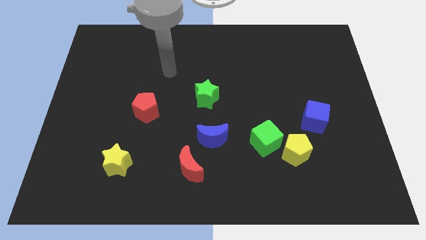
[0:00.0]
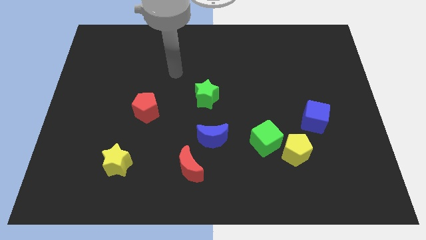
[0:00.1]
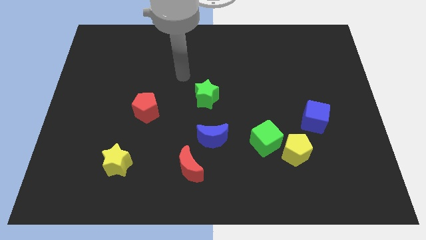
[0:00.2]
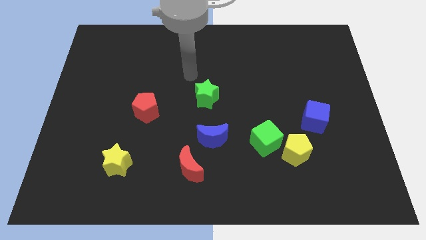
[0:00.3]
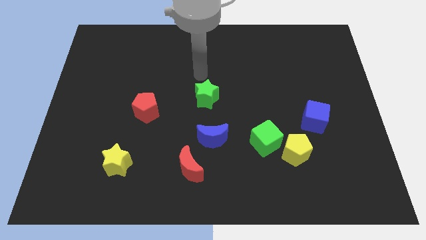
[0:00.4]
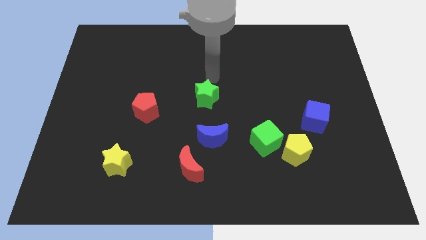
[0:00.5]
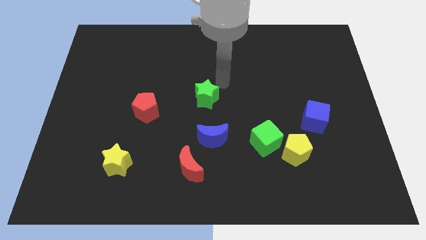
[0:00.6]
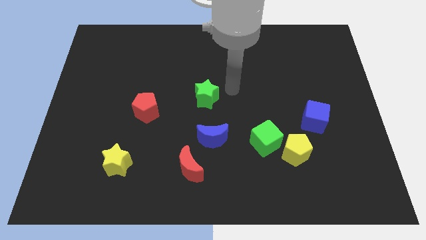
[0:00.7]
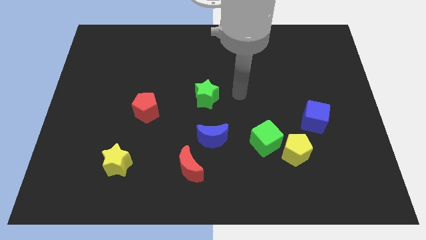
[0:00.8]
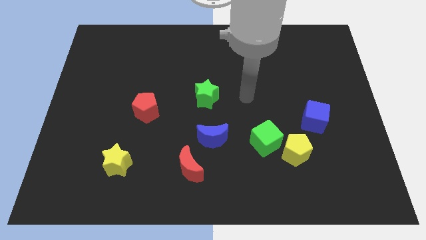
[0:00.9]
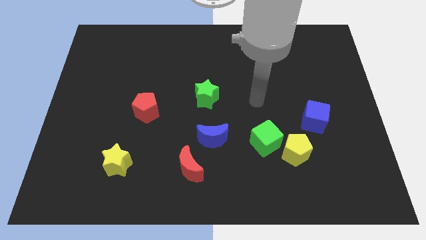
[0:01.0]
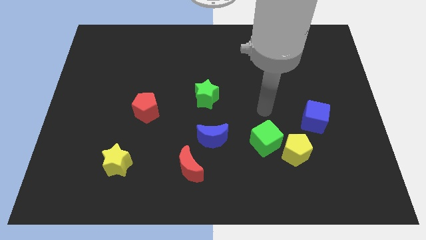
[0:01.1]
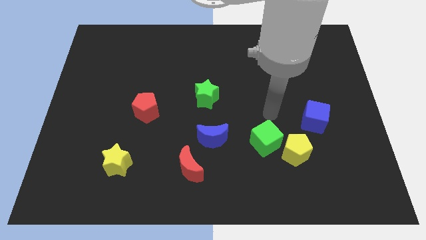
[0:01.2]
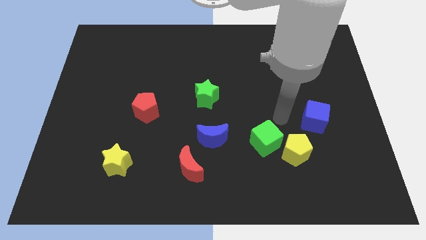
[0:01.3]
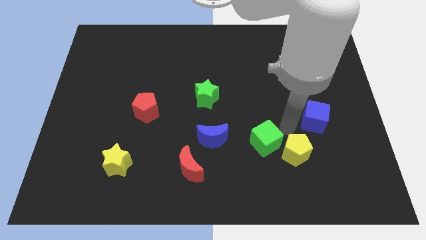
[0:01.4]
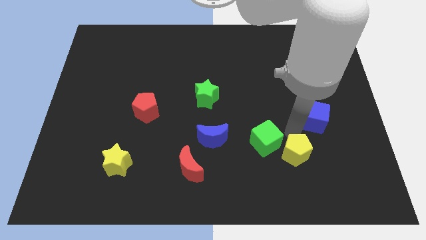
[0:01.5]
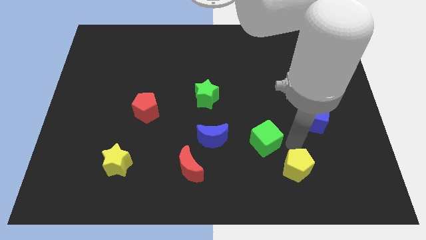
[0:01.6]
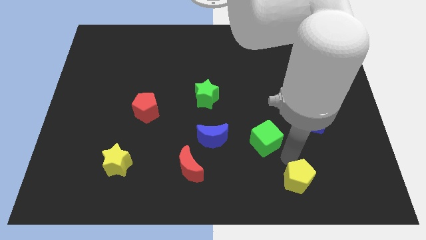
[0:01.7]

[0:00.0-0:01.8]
move the green cube away from the yellow pentagon

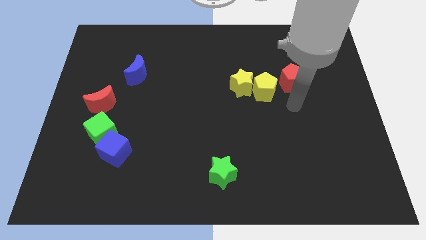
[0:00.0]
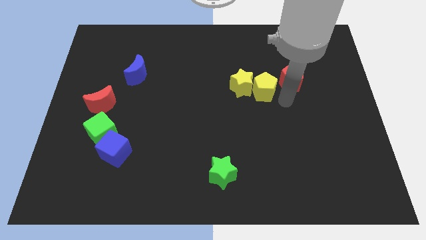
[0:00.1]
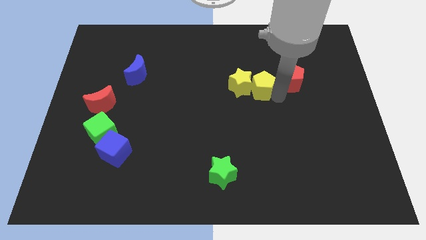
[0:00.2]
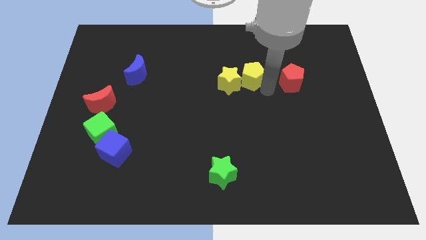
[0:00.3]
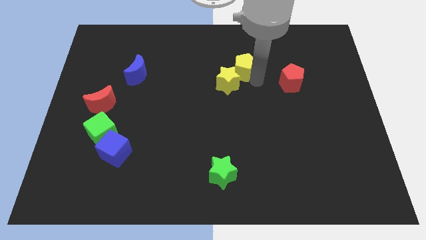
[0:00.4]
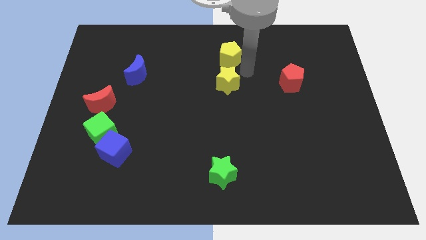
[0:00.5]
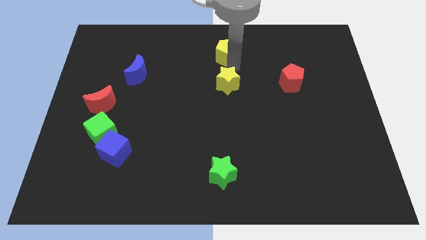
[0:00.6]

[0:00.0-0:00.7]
move the yellow star away from the yellow pentagon

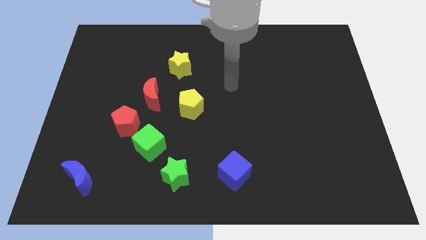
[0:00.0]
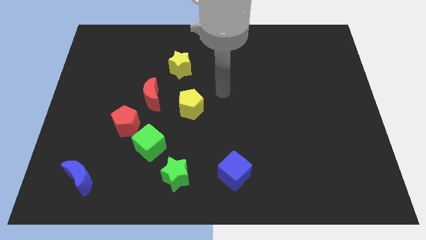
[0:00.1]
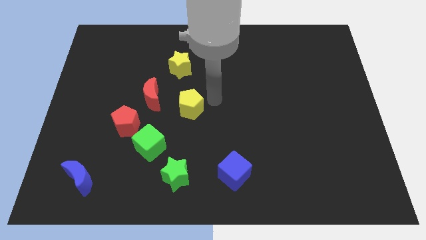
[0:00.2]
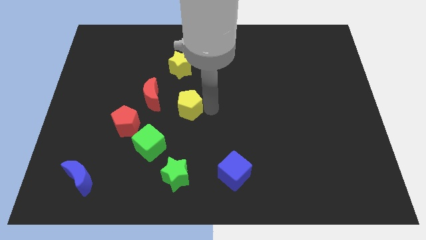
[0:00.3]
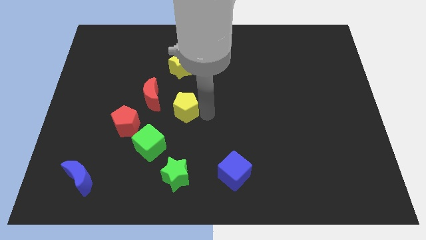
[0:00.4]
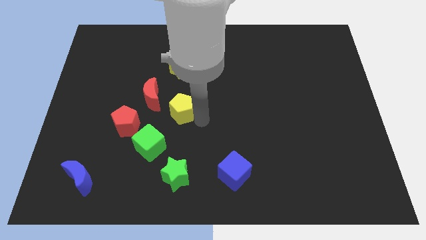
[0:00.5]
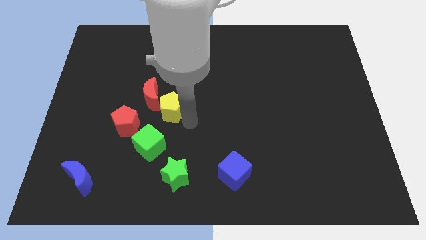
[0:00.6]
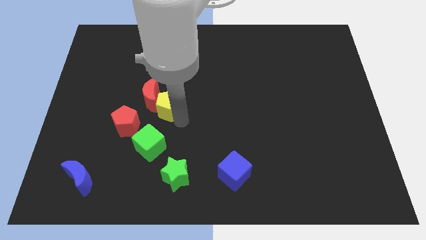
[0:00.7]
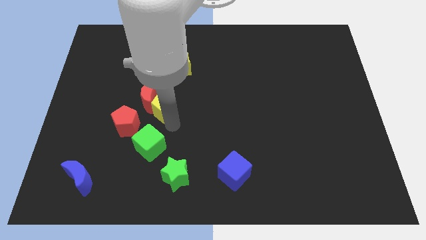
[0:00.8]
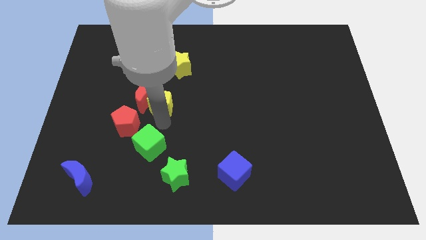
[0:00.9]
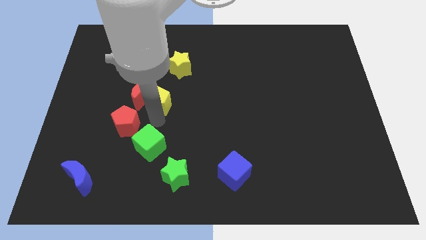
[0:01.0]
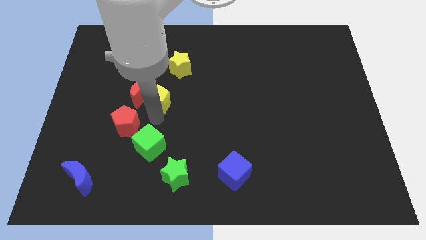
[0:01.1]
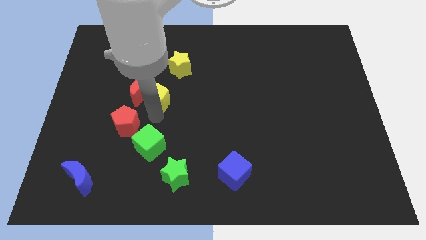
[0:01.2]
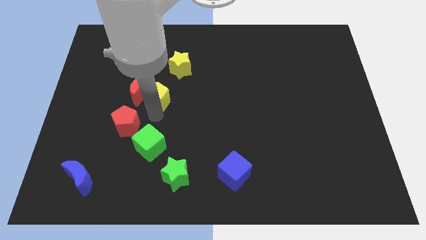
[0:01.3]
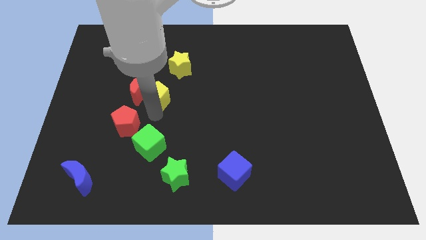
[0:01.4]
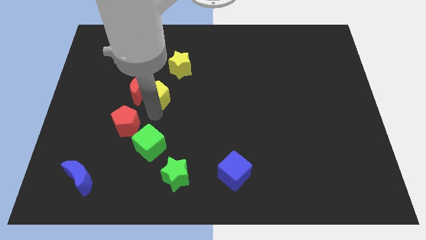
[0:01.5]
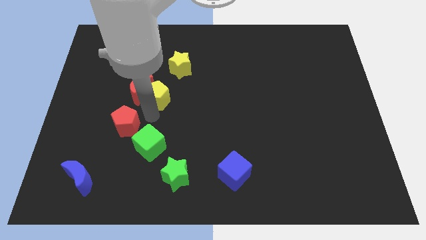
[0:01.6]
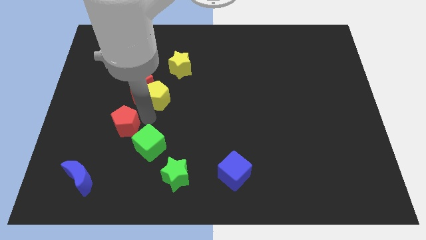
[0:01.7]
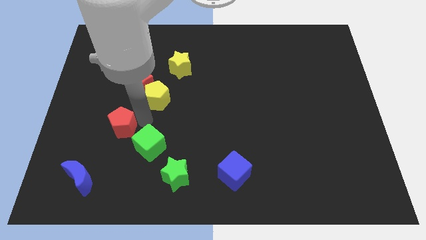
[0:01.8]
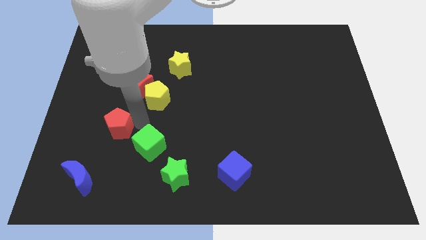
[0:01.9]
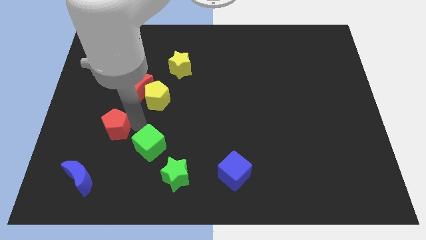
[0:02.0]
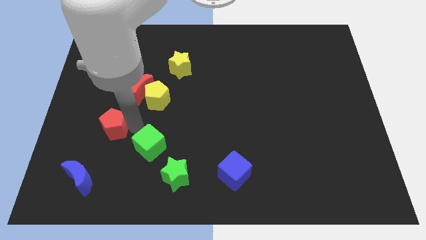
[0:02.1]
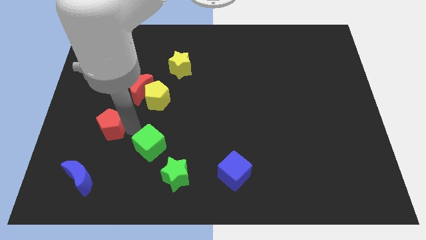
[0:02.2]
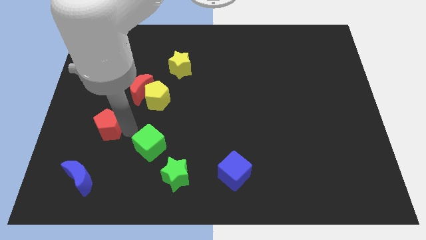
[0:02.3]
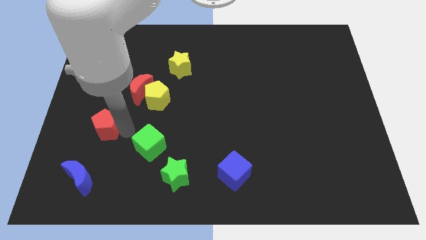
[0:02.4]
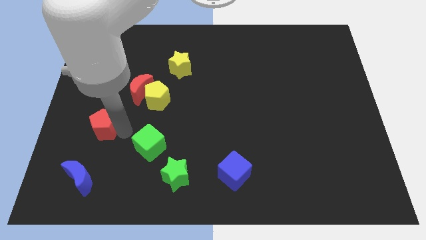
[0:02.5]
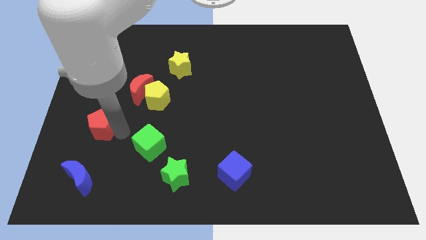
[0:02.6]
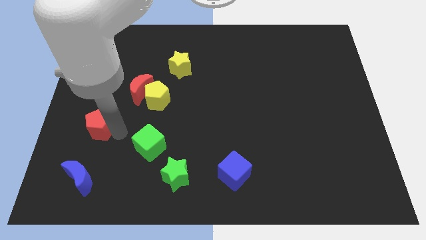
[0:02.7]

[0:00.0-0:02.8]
pull the red pentagon apart from the green cube and red moon

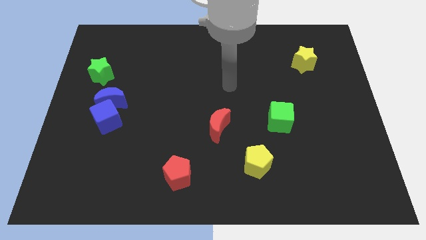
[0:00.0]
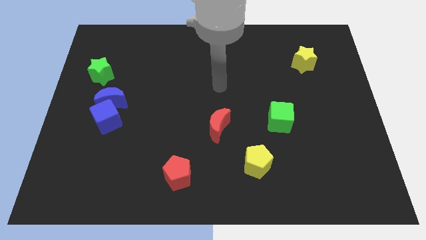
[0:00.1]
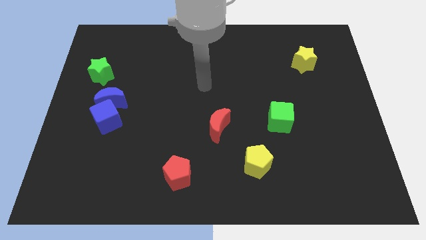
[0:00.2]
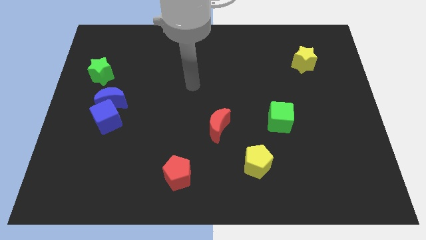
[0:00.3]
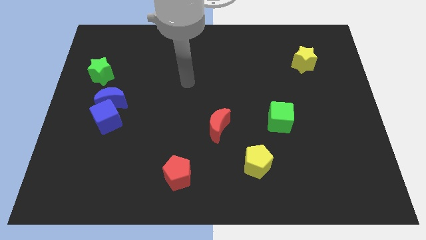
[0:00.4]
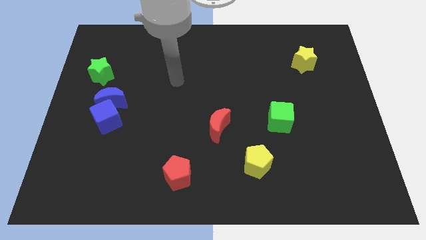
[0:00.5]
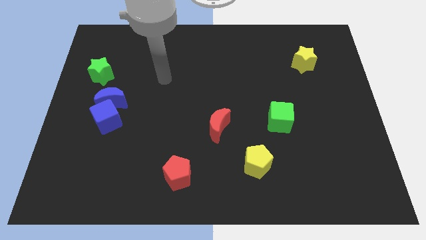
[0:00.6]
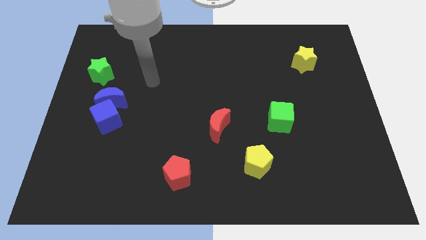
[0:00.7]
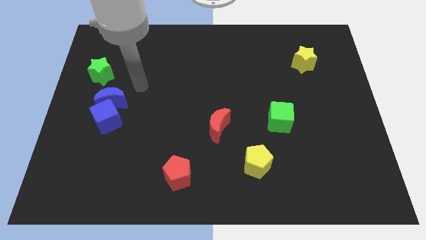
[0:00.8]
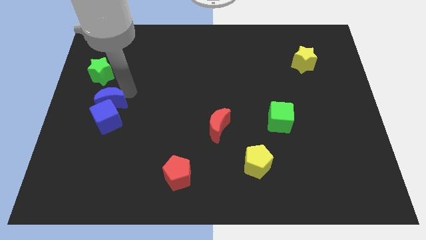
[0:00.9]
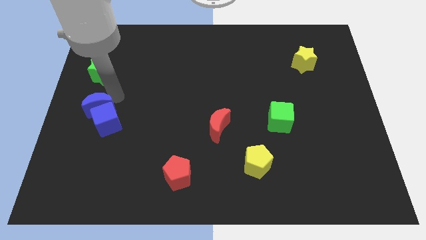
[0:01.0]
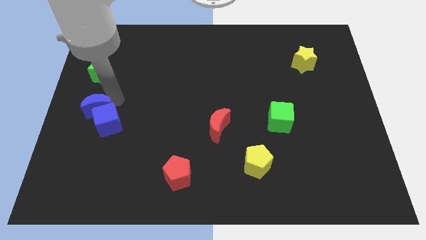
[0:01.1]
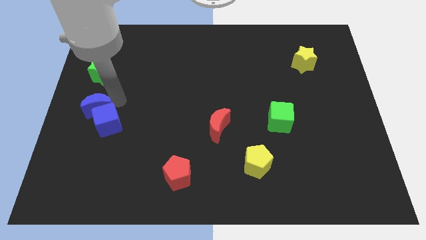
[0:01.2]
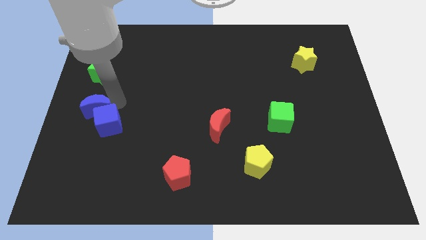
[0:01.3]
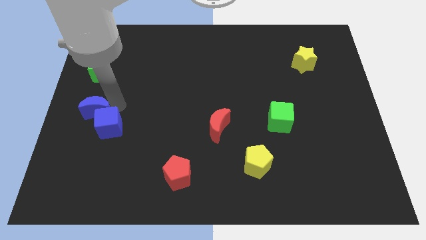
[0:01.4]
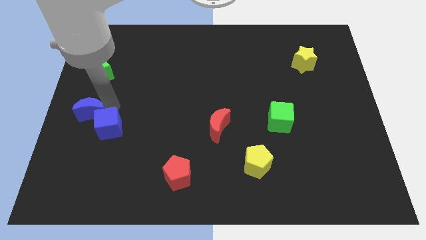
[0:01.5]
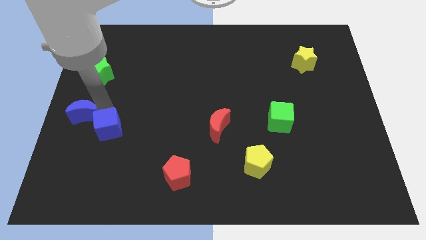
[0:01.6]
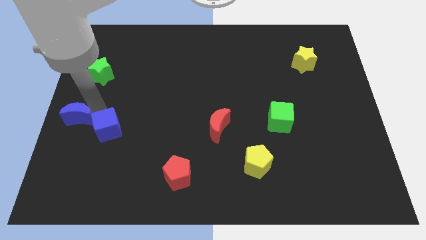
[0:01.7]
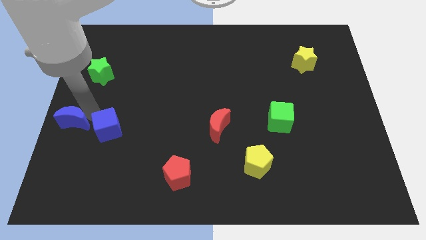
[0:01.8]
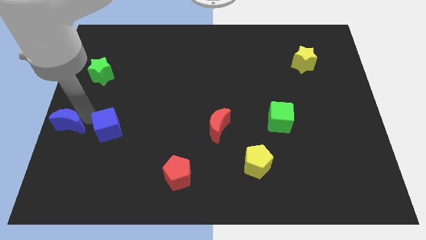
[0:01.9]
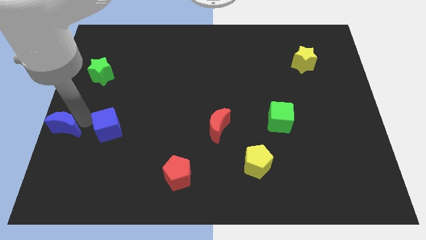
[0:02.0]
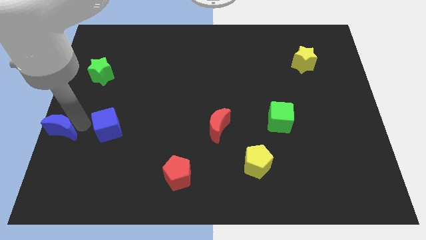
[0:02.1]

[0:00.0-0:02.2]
separate the blue cube from the blue moon

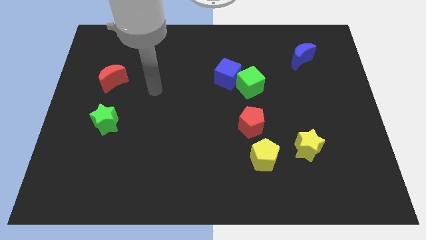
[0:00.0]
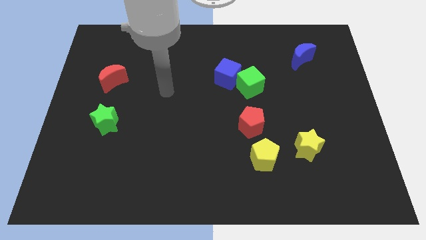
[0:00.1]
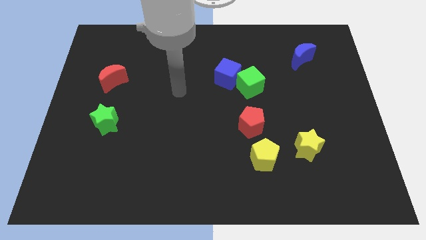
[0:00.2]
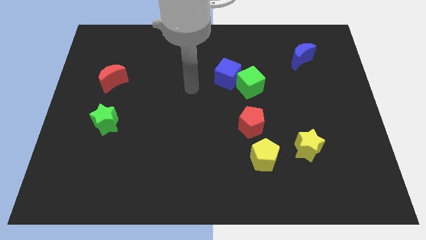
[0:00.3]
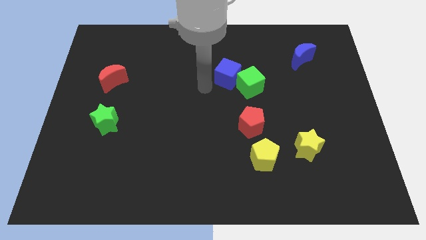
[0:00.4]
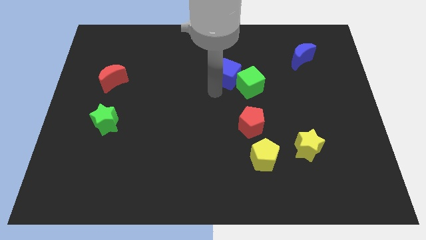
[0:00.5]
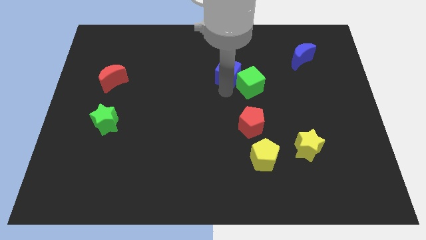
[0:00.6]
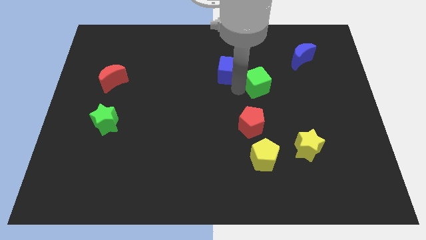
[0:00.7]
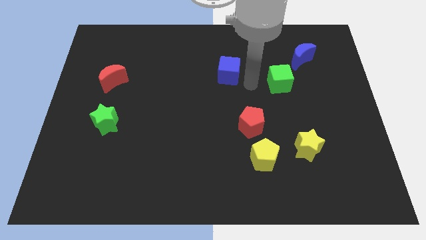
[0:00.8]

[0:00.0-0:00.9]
separate the blue cube from the green cube

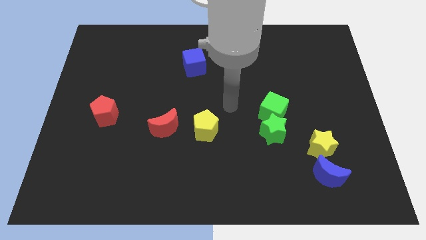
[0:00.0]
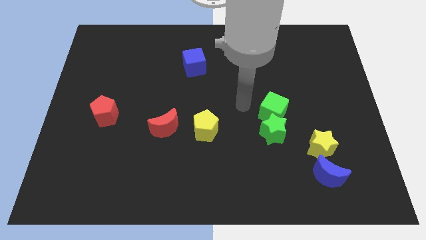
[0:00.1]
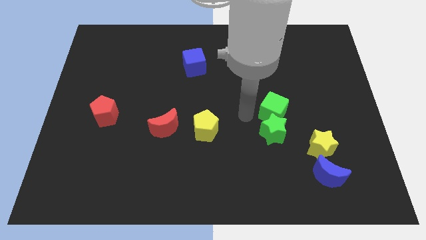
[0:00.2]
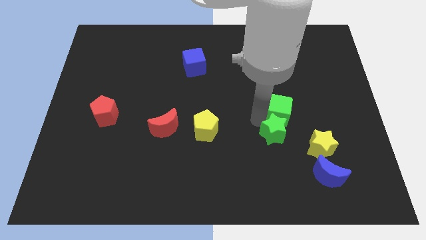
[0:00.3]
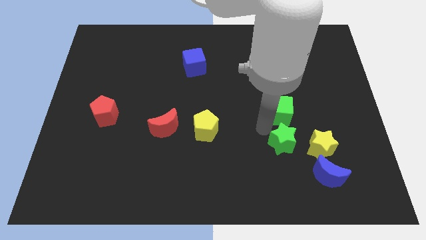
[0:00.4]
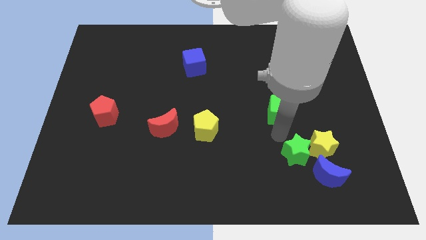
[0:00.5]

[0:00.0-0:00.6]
pull the green cube apart from the green star

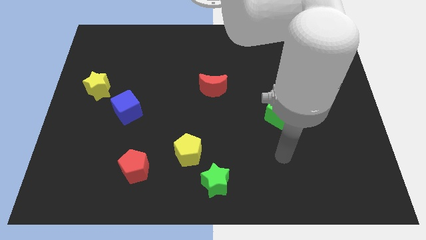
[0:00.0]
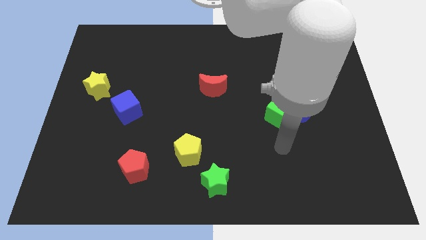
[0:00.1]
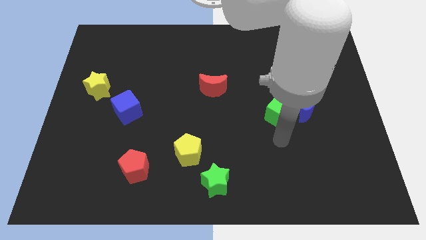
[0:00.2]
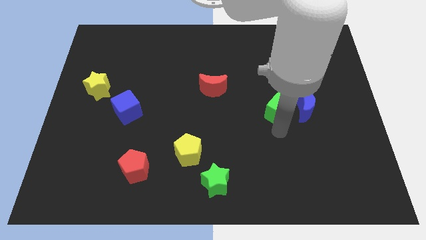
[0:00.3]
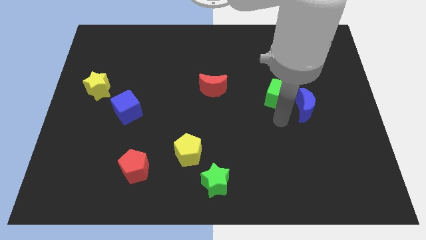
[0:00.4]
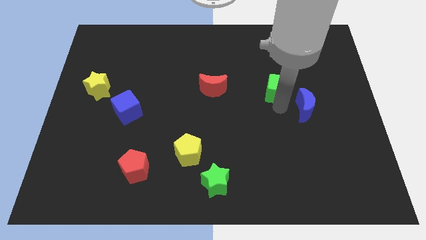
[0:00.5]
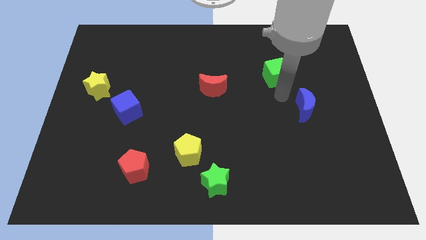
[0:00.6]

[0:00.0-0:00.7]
separate the blue moon from the green cube
